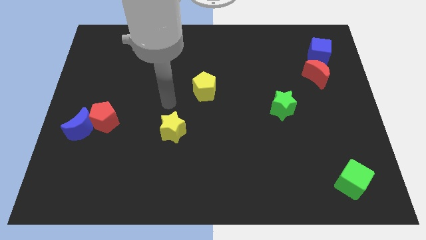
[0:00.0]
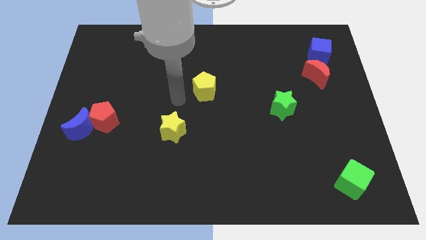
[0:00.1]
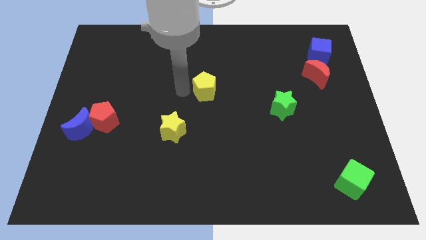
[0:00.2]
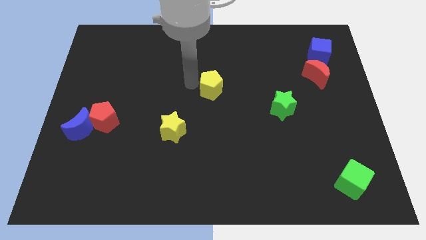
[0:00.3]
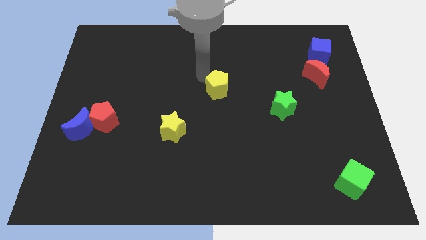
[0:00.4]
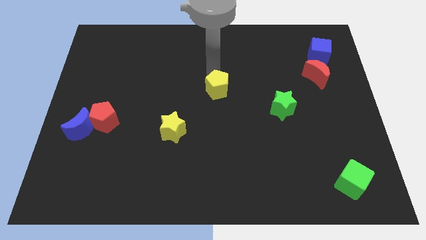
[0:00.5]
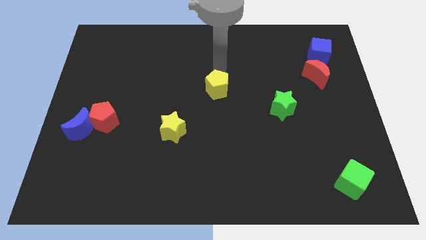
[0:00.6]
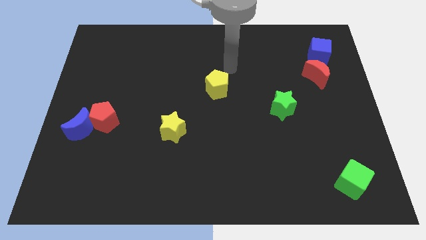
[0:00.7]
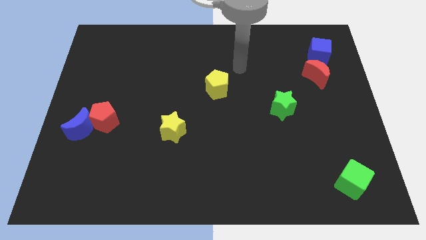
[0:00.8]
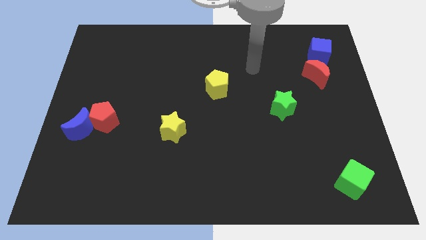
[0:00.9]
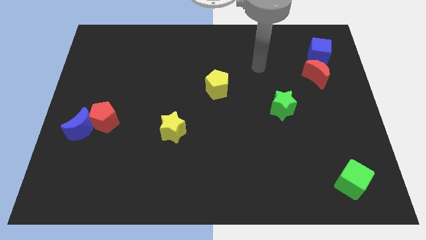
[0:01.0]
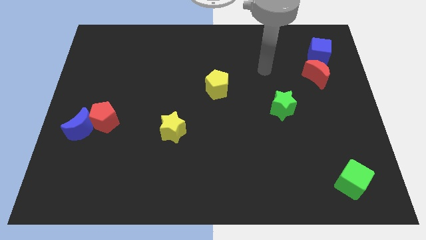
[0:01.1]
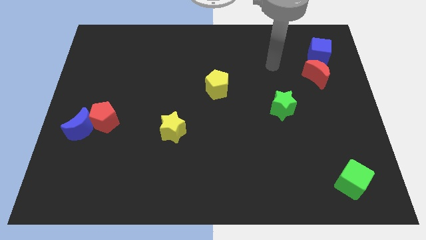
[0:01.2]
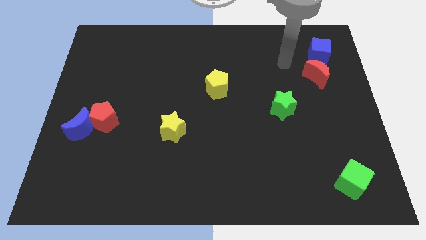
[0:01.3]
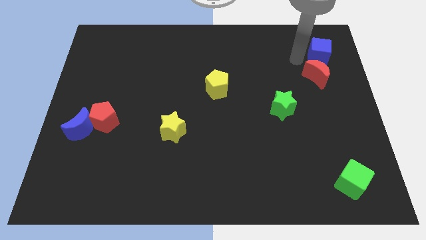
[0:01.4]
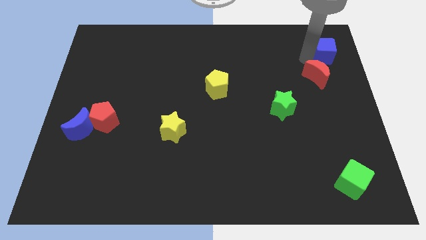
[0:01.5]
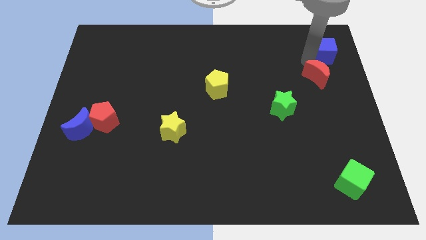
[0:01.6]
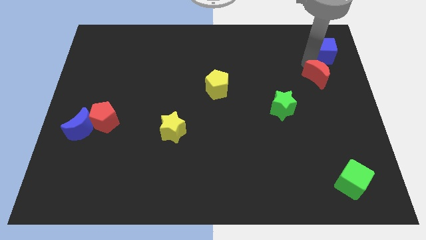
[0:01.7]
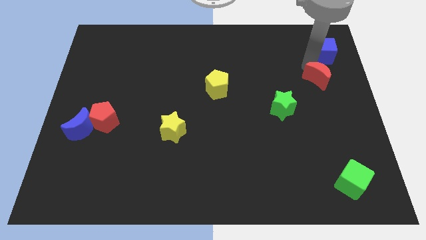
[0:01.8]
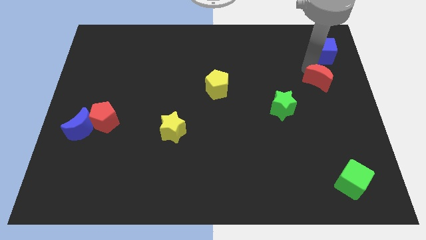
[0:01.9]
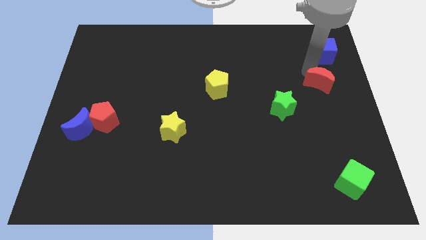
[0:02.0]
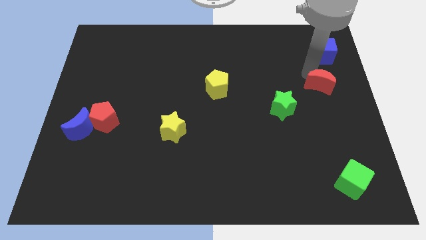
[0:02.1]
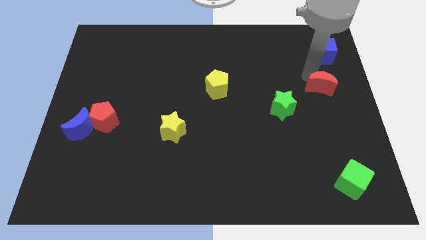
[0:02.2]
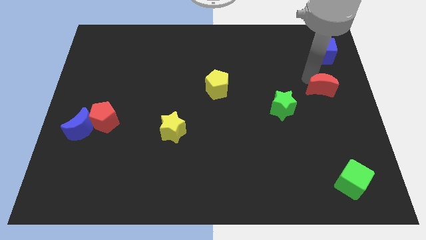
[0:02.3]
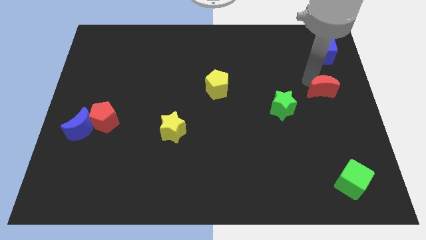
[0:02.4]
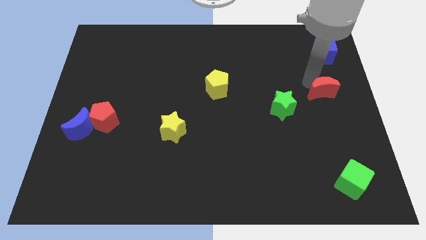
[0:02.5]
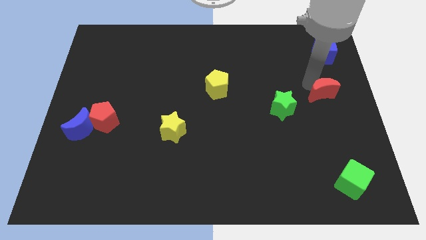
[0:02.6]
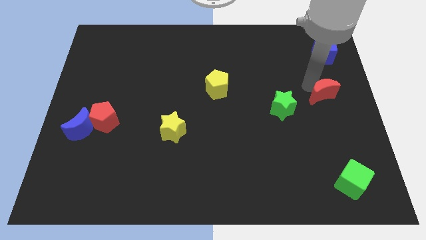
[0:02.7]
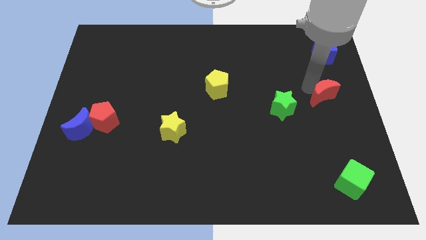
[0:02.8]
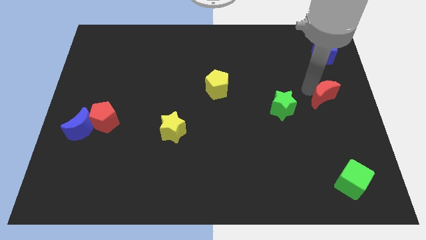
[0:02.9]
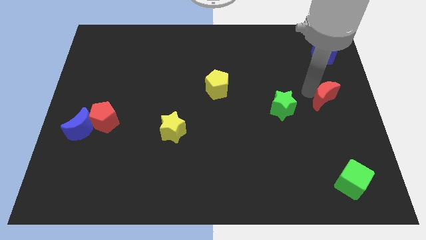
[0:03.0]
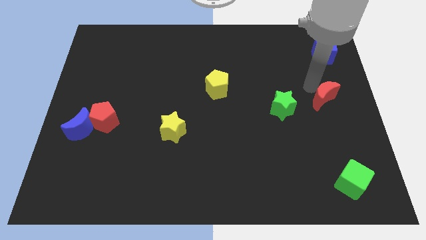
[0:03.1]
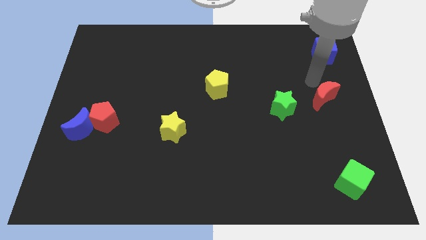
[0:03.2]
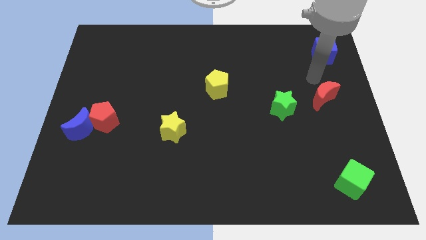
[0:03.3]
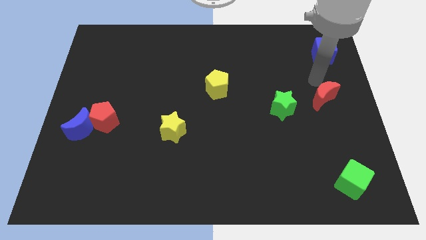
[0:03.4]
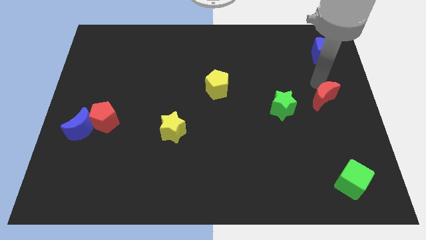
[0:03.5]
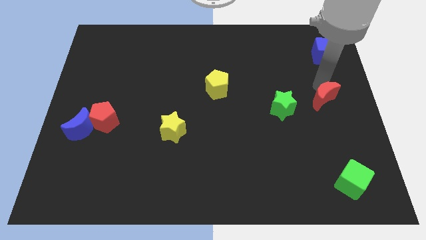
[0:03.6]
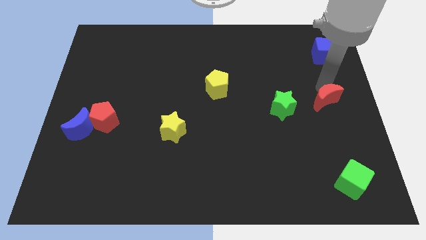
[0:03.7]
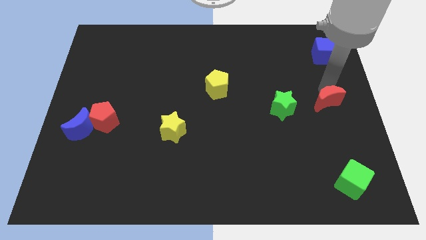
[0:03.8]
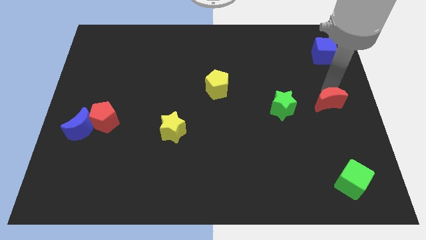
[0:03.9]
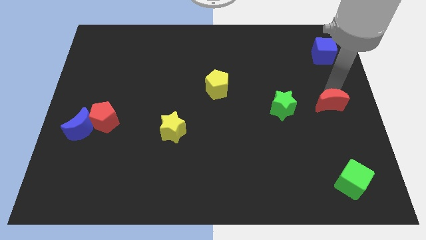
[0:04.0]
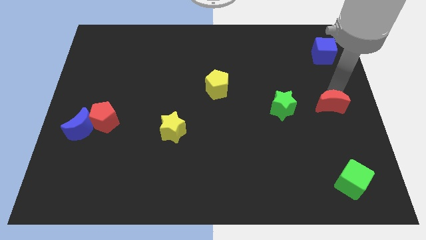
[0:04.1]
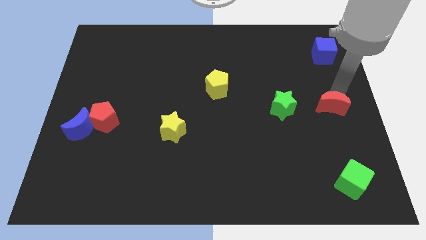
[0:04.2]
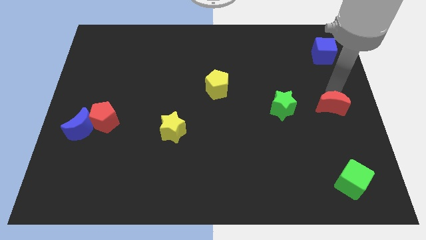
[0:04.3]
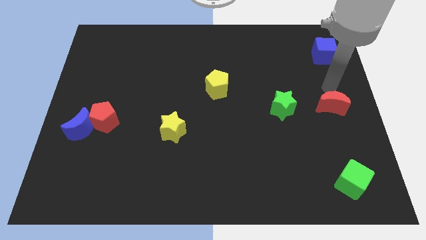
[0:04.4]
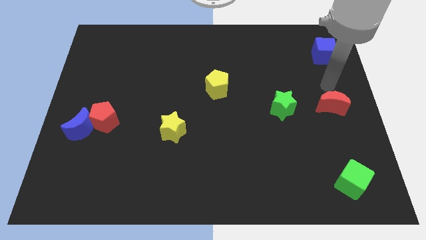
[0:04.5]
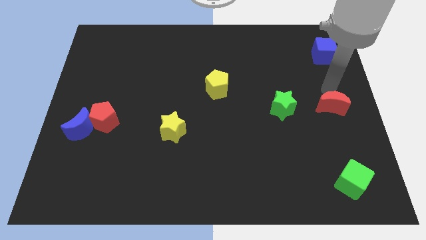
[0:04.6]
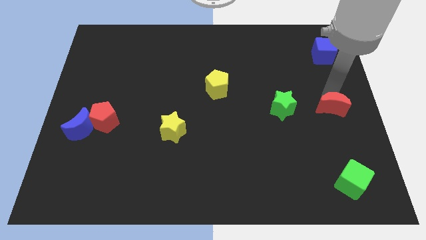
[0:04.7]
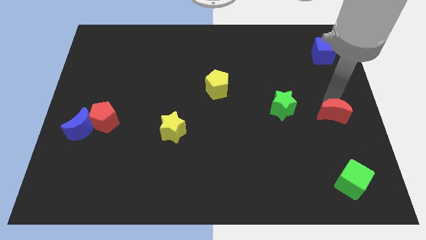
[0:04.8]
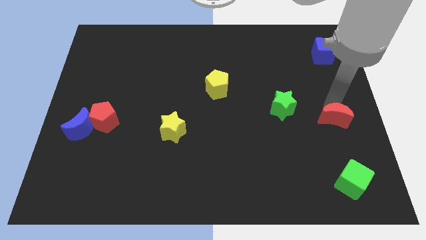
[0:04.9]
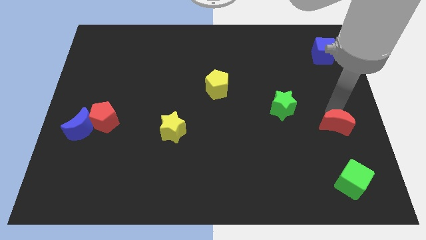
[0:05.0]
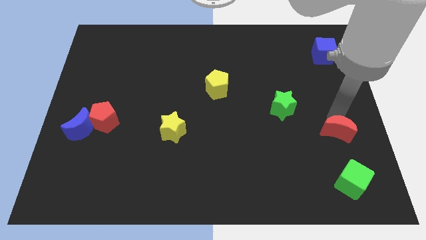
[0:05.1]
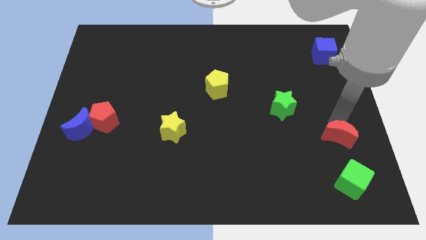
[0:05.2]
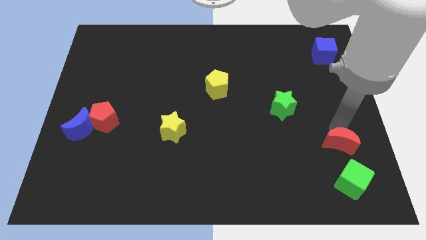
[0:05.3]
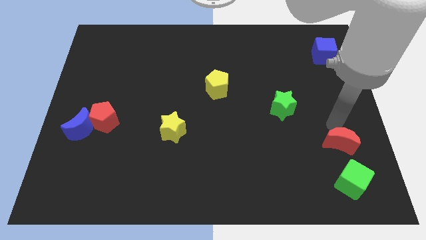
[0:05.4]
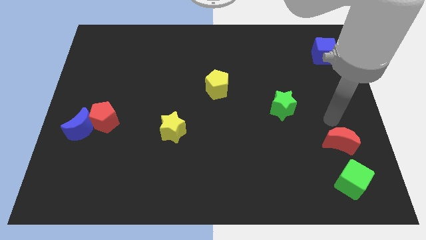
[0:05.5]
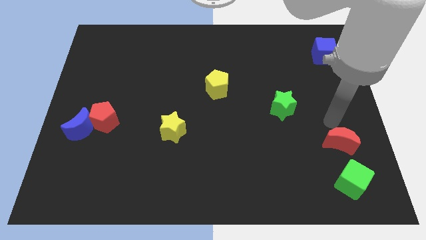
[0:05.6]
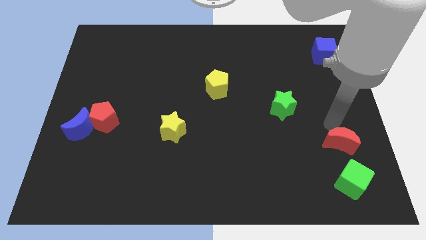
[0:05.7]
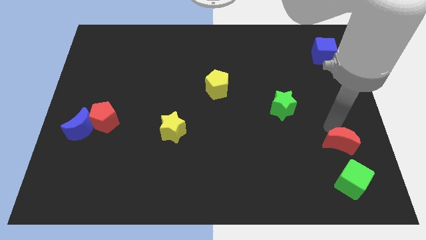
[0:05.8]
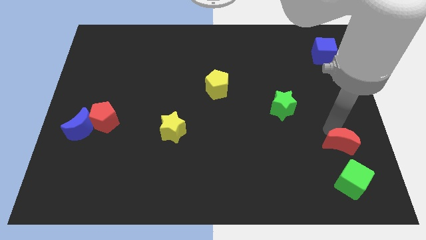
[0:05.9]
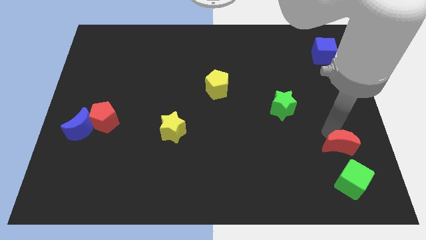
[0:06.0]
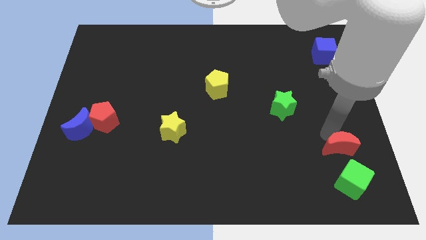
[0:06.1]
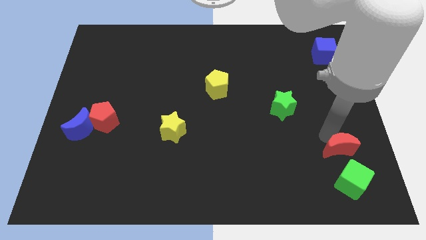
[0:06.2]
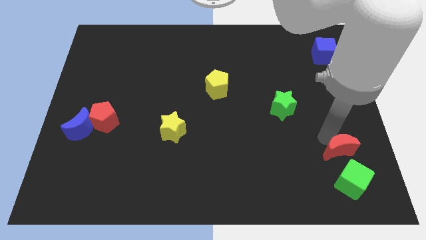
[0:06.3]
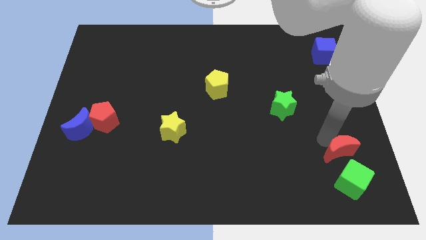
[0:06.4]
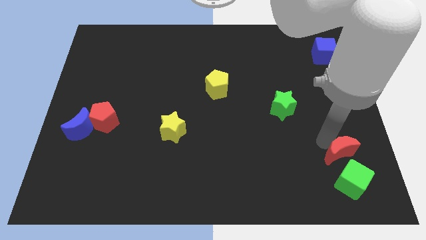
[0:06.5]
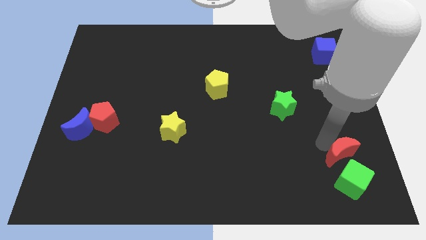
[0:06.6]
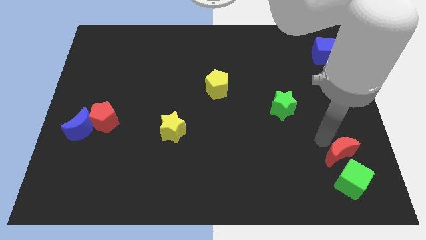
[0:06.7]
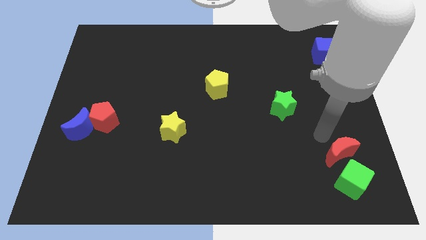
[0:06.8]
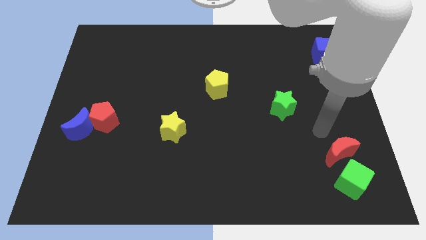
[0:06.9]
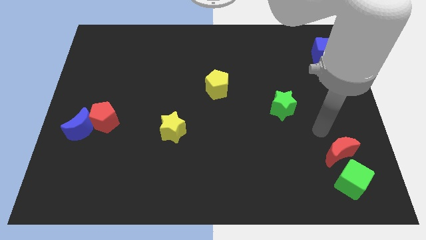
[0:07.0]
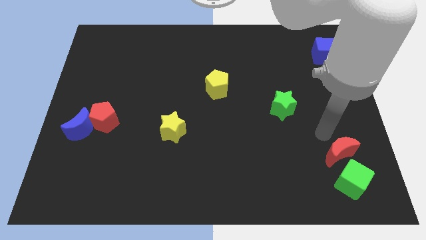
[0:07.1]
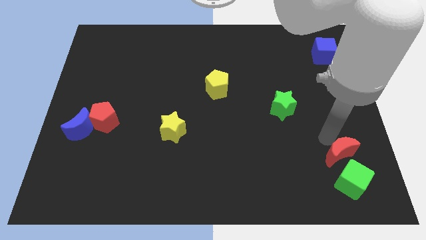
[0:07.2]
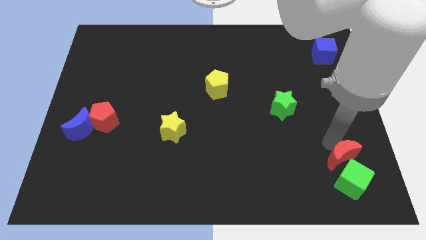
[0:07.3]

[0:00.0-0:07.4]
slide the red moon next to the green cube
